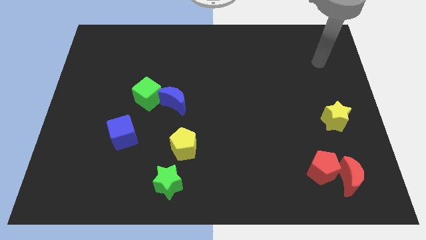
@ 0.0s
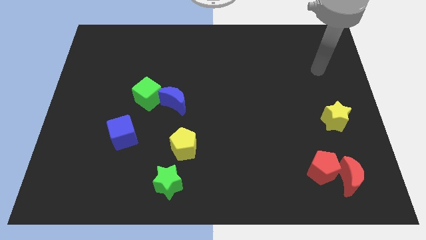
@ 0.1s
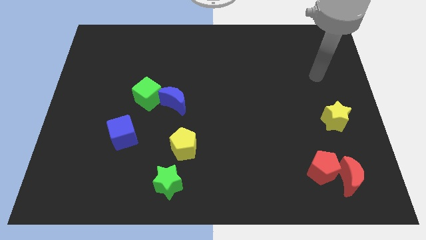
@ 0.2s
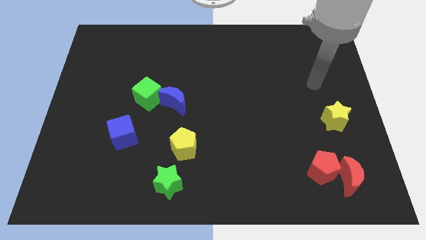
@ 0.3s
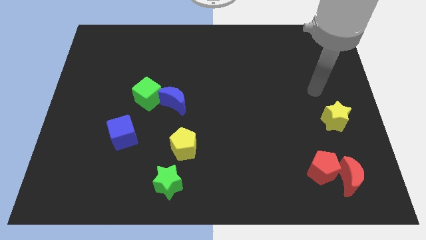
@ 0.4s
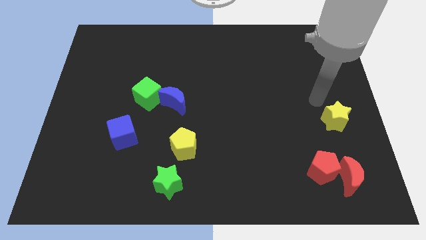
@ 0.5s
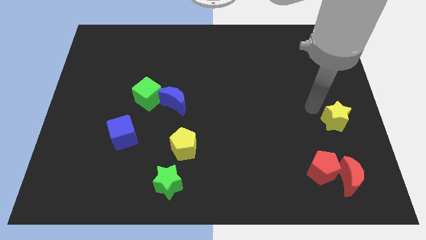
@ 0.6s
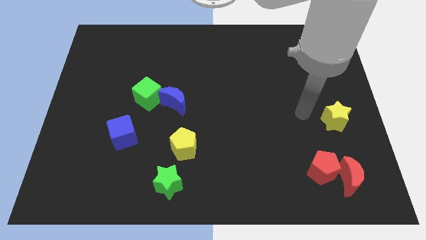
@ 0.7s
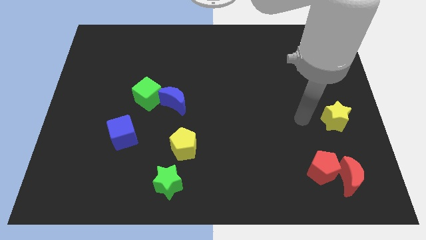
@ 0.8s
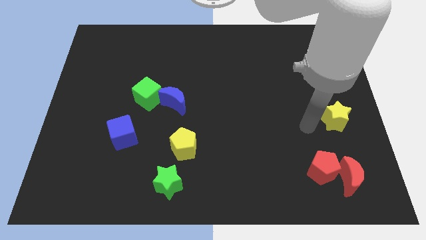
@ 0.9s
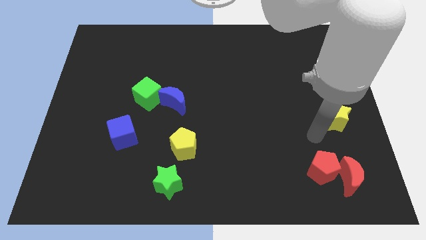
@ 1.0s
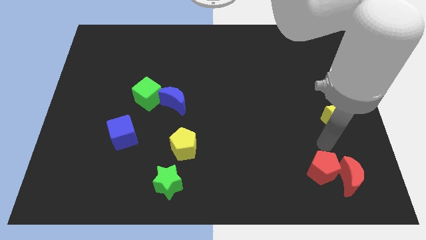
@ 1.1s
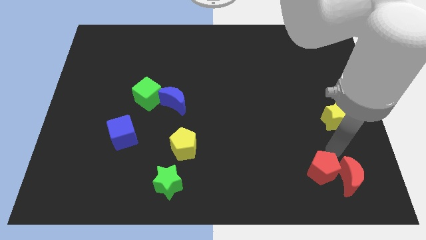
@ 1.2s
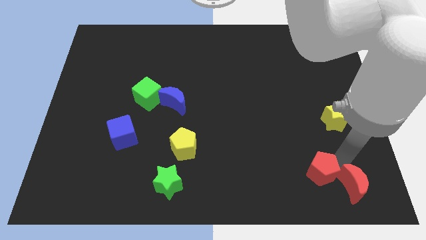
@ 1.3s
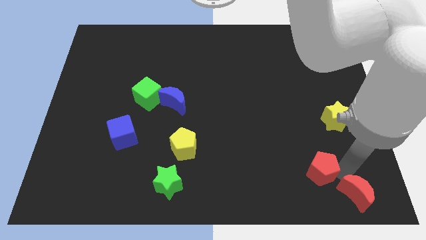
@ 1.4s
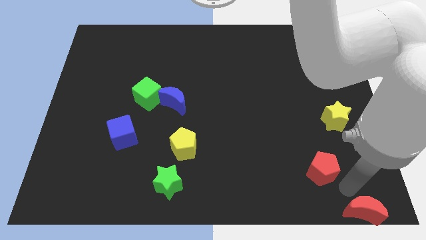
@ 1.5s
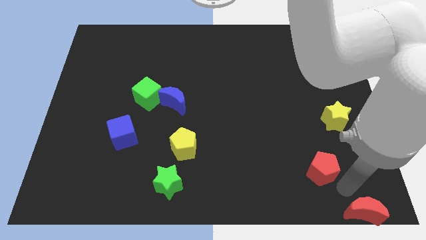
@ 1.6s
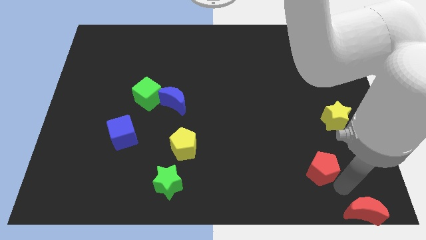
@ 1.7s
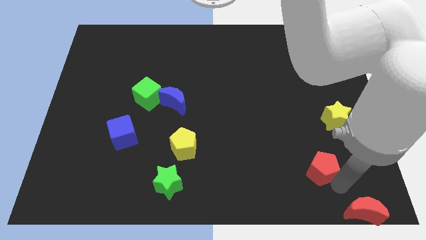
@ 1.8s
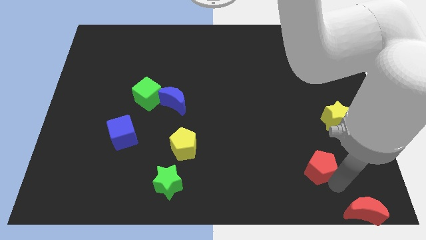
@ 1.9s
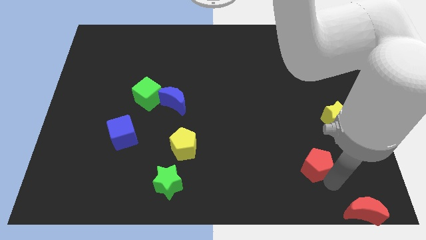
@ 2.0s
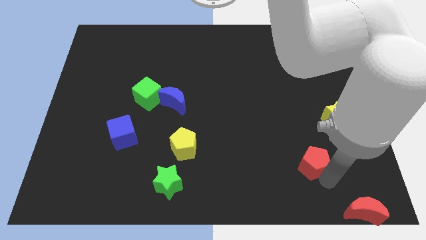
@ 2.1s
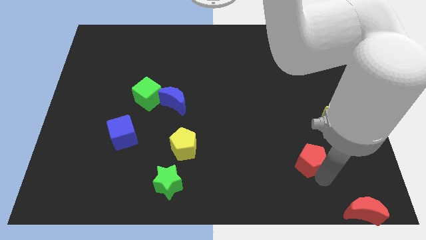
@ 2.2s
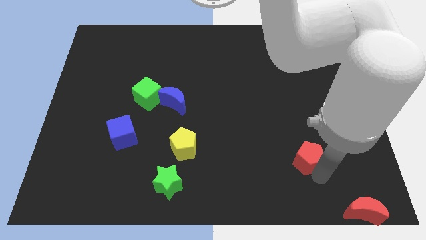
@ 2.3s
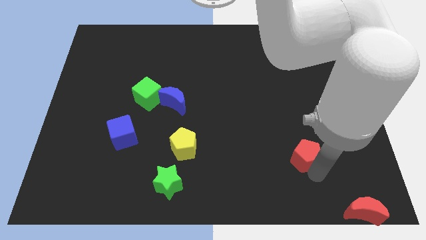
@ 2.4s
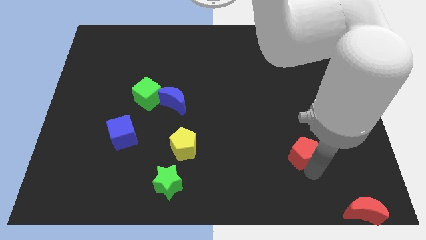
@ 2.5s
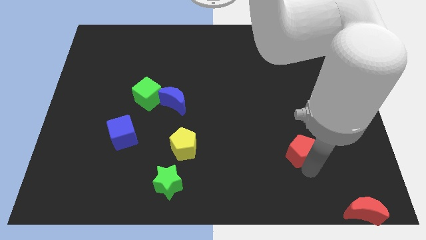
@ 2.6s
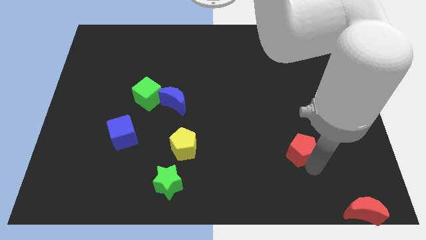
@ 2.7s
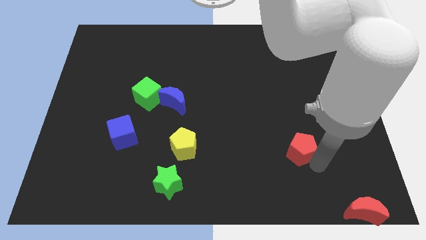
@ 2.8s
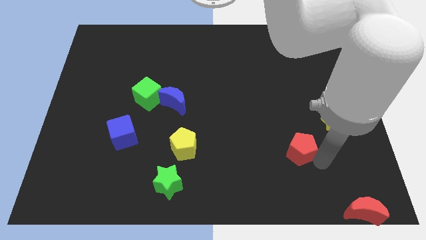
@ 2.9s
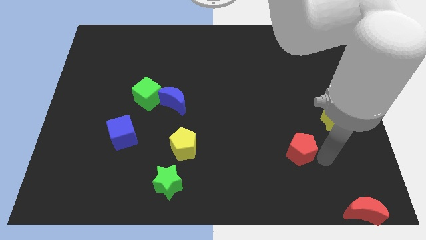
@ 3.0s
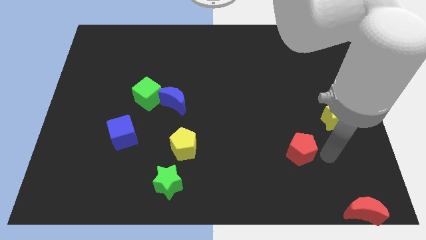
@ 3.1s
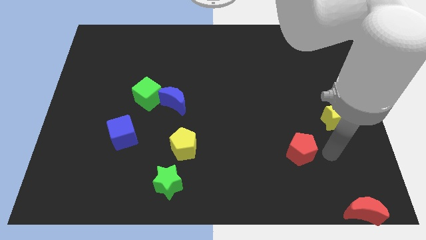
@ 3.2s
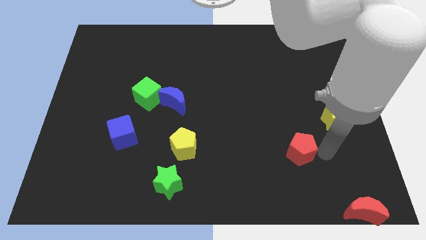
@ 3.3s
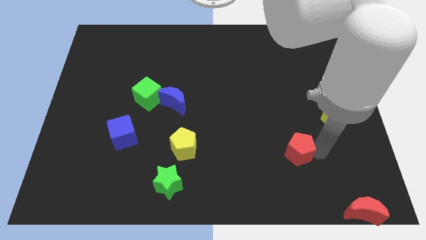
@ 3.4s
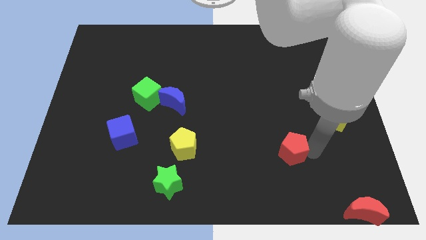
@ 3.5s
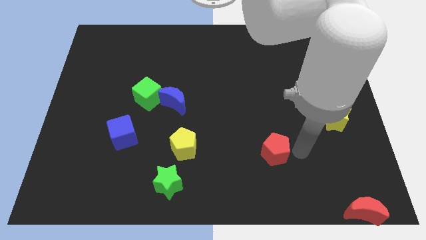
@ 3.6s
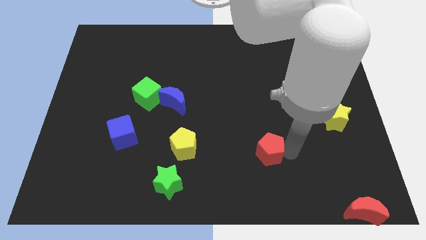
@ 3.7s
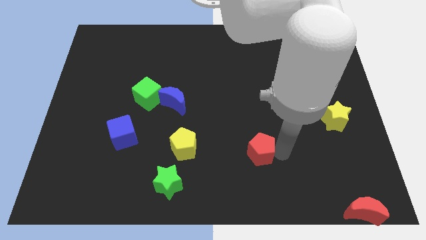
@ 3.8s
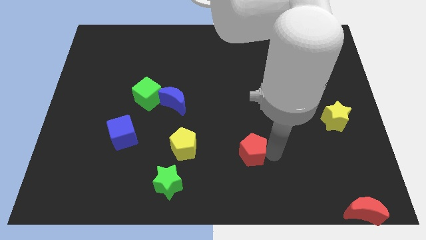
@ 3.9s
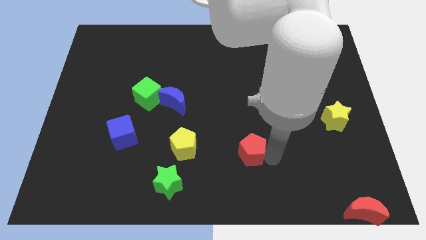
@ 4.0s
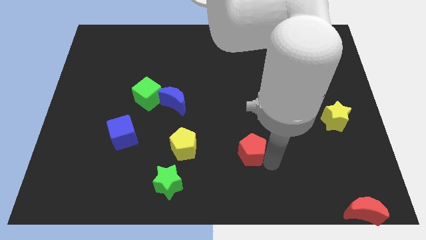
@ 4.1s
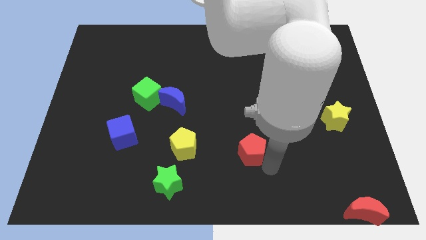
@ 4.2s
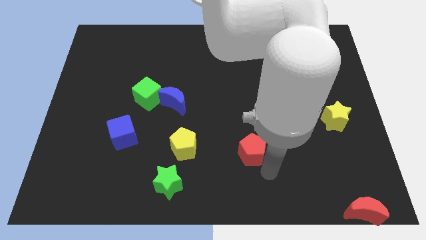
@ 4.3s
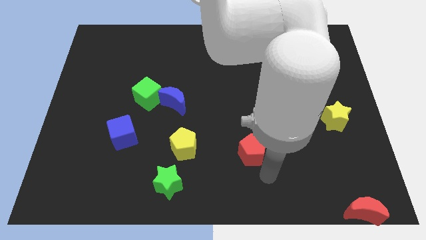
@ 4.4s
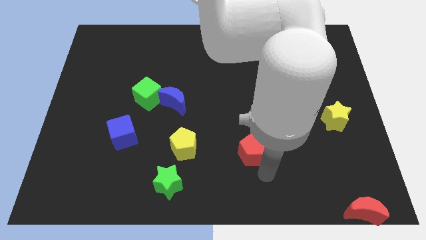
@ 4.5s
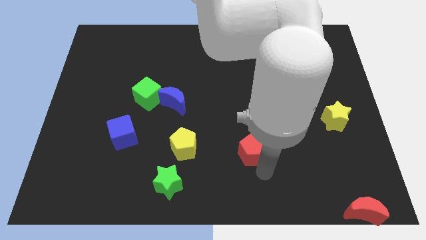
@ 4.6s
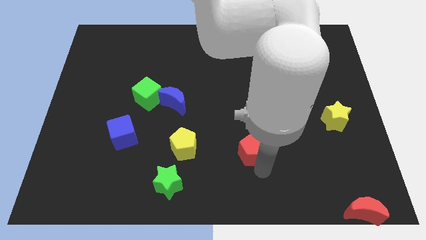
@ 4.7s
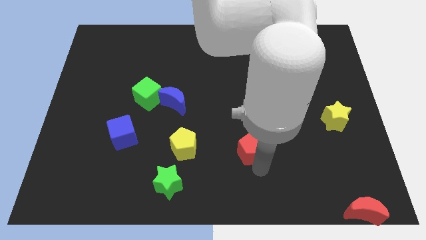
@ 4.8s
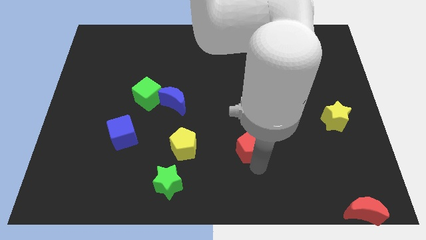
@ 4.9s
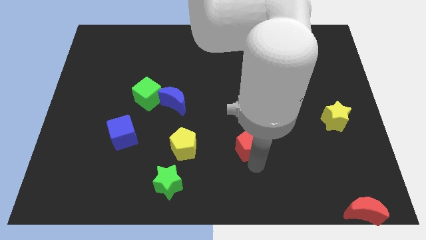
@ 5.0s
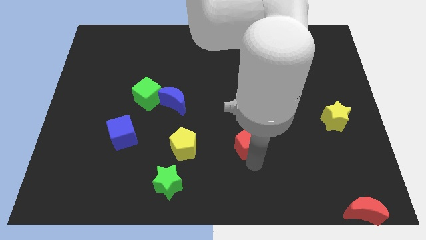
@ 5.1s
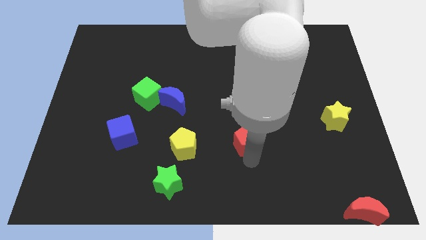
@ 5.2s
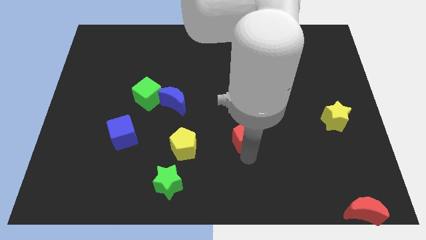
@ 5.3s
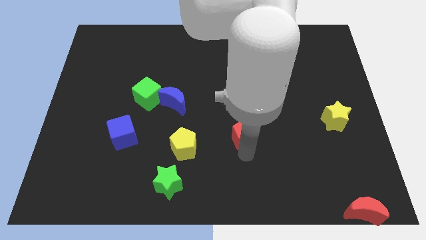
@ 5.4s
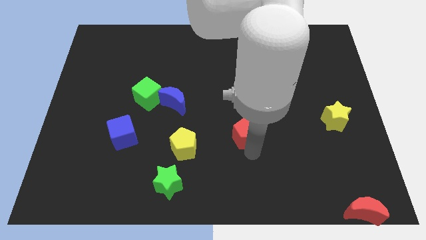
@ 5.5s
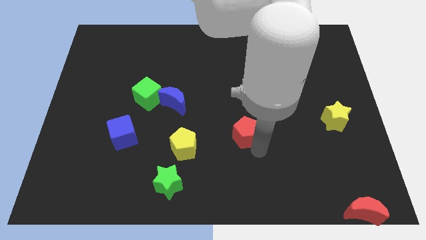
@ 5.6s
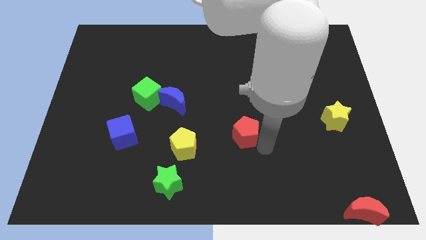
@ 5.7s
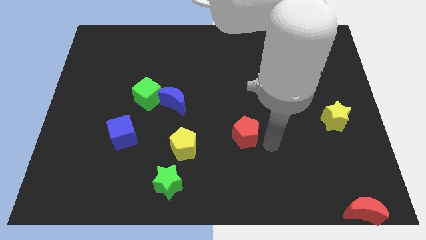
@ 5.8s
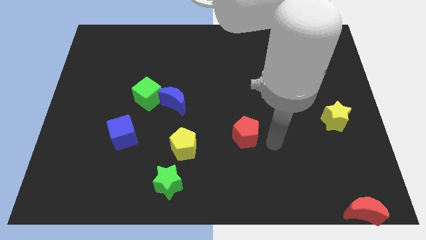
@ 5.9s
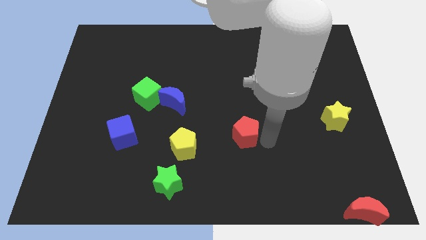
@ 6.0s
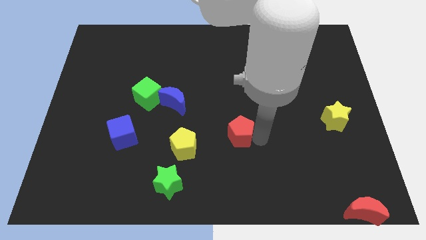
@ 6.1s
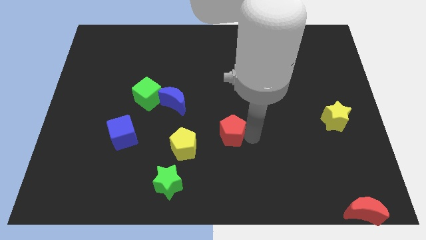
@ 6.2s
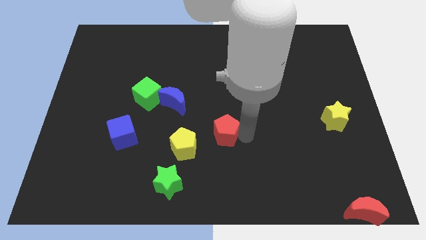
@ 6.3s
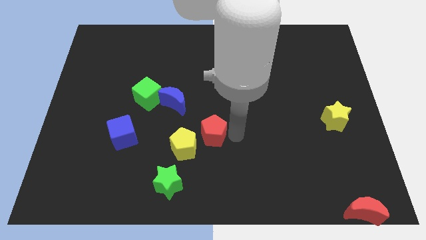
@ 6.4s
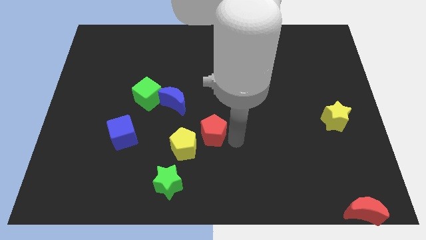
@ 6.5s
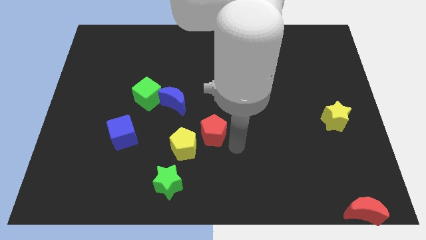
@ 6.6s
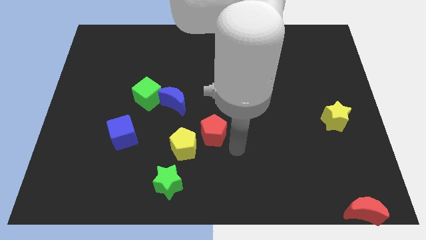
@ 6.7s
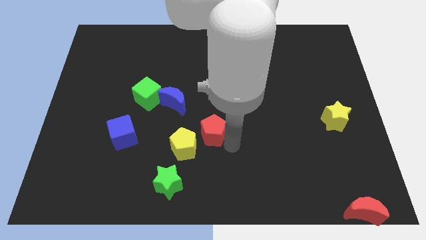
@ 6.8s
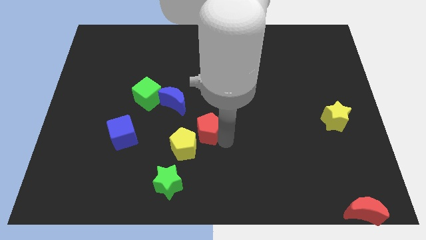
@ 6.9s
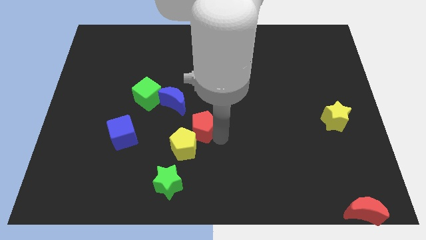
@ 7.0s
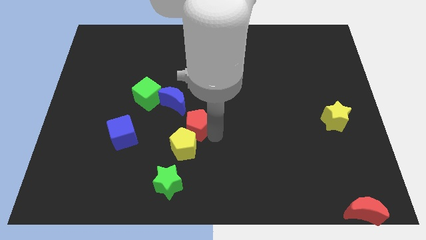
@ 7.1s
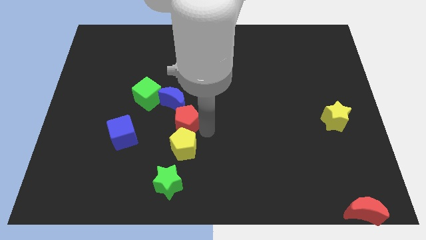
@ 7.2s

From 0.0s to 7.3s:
move the red pentagon diagonally down and to the right of the green cube
